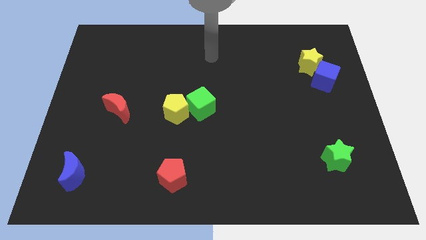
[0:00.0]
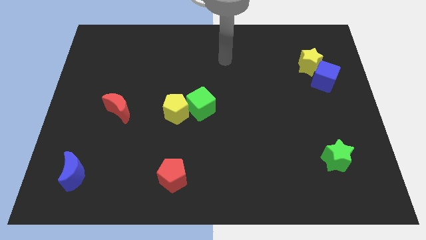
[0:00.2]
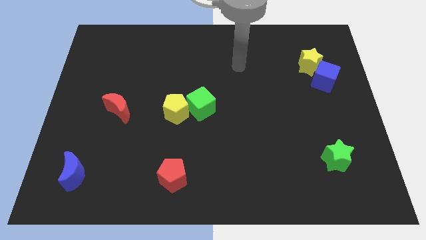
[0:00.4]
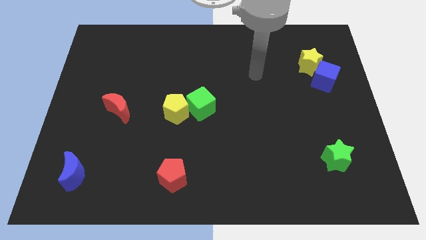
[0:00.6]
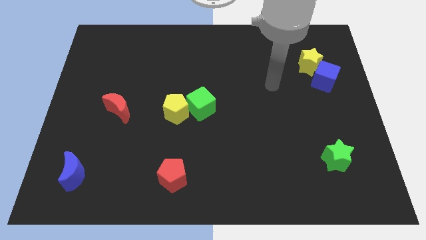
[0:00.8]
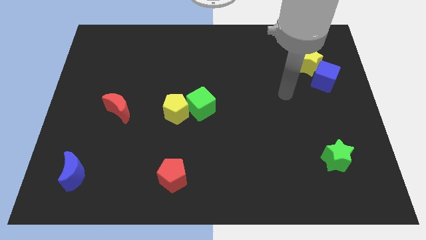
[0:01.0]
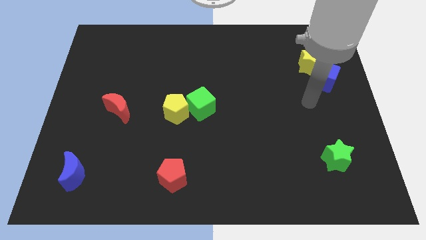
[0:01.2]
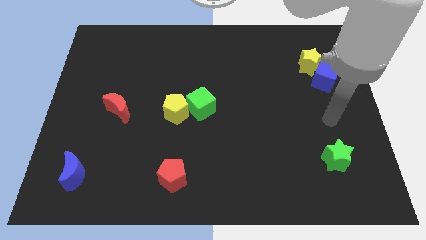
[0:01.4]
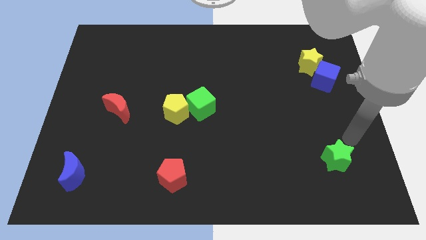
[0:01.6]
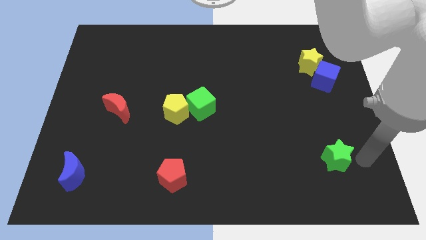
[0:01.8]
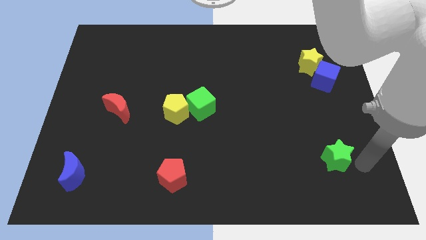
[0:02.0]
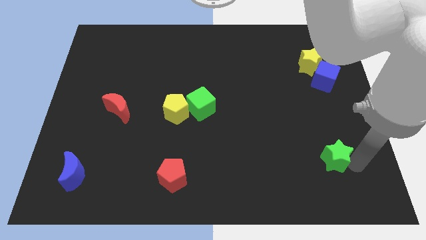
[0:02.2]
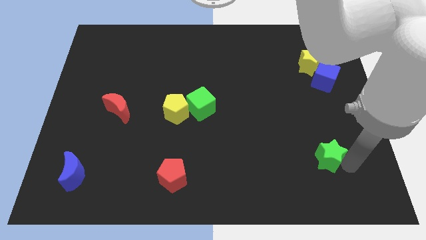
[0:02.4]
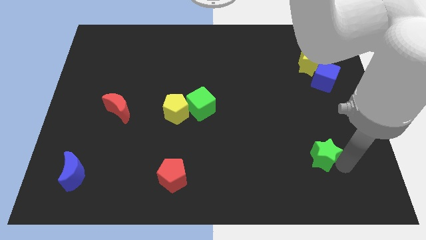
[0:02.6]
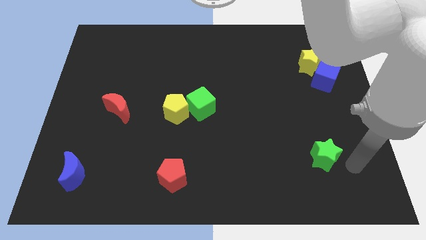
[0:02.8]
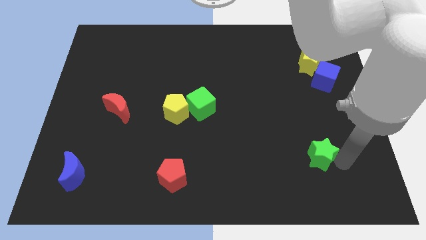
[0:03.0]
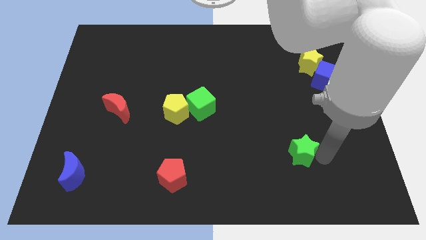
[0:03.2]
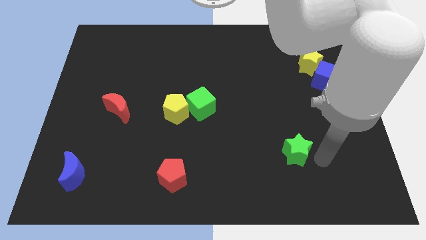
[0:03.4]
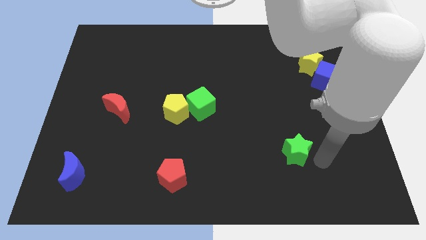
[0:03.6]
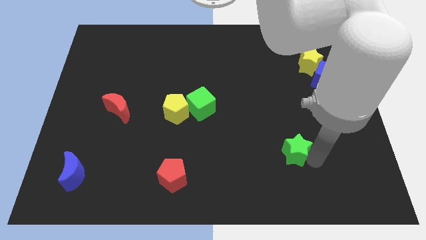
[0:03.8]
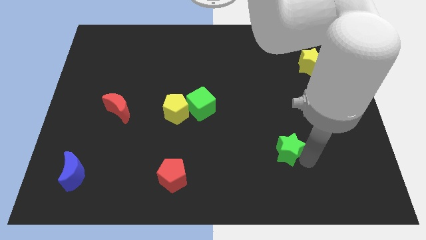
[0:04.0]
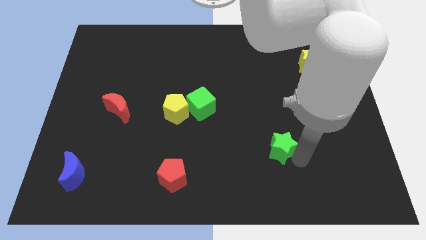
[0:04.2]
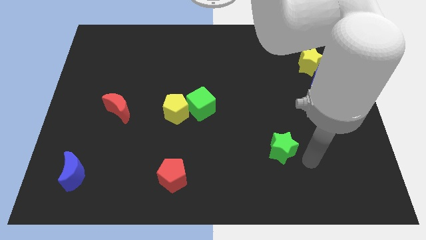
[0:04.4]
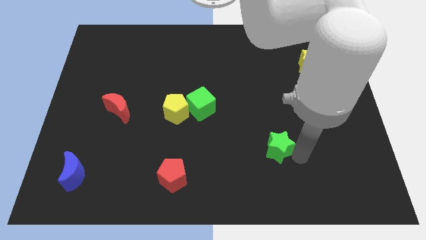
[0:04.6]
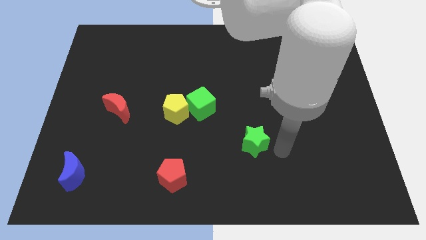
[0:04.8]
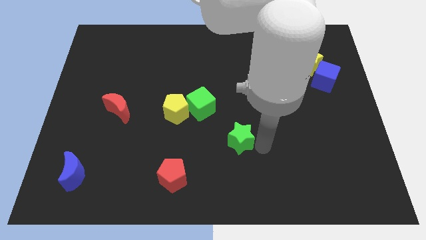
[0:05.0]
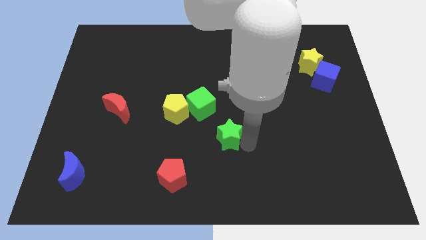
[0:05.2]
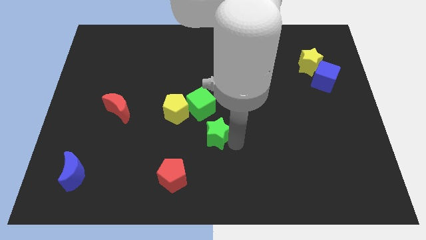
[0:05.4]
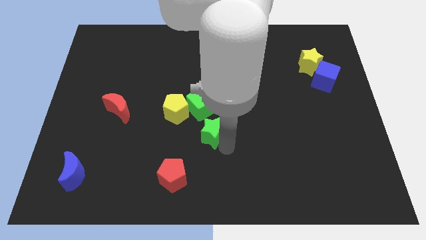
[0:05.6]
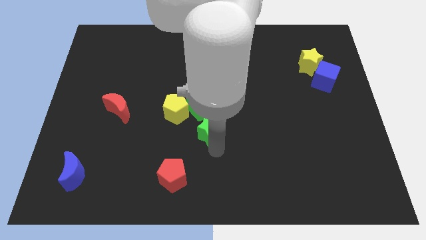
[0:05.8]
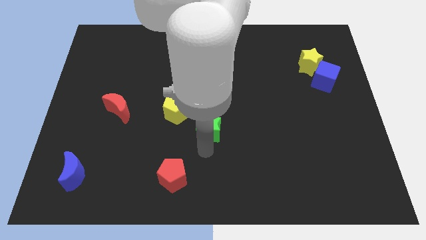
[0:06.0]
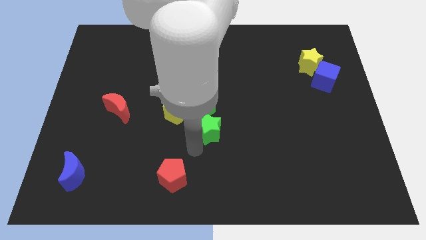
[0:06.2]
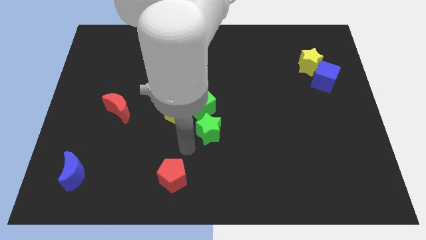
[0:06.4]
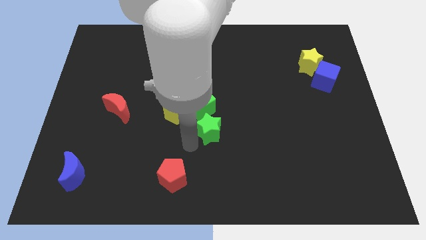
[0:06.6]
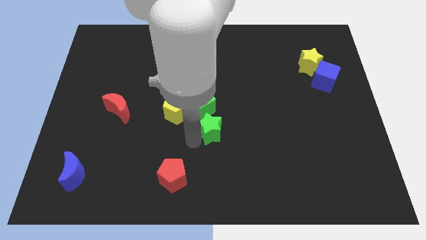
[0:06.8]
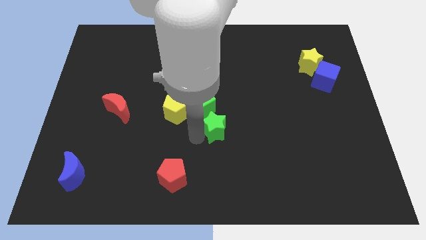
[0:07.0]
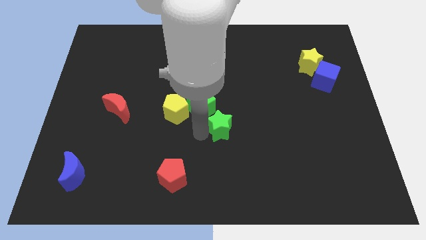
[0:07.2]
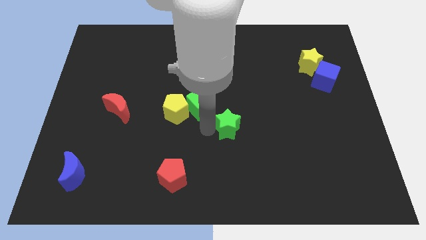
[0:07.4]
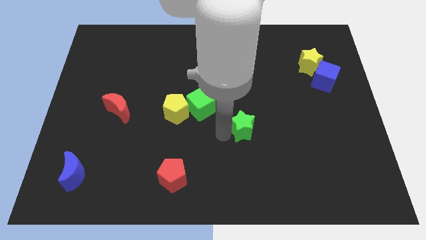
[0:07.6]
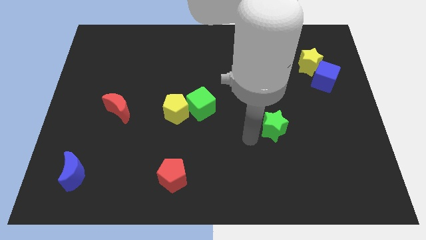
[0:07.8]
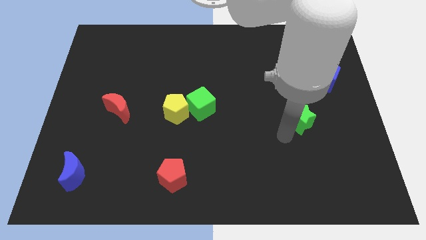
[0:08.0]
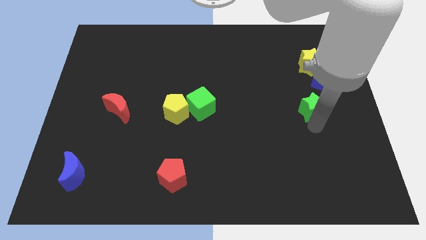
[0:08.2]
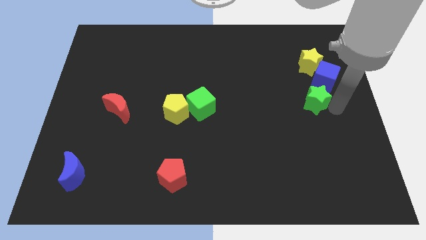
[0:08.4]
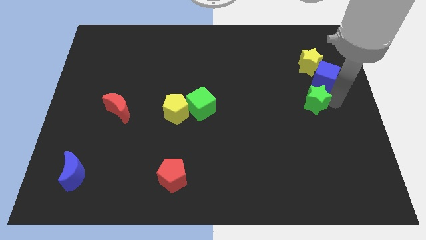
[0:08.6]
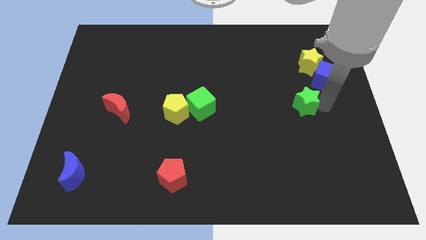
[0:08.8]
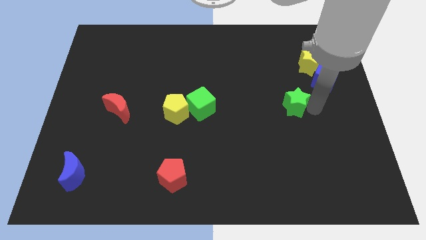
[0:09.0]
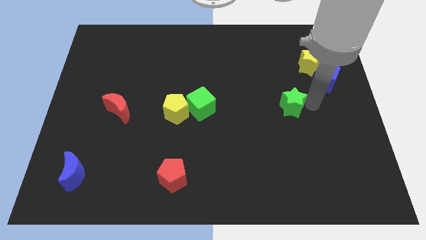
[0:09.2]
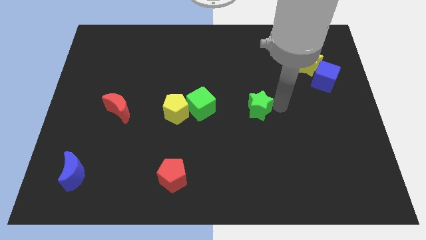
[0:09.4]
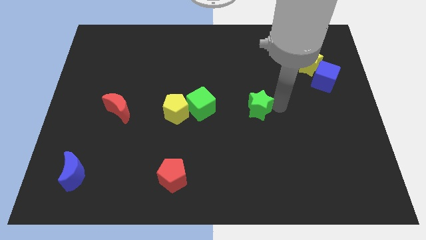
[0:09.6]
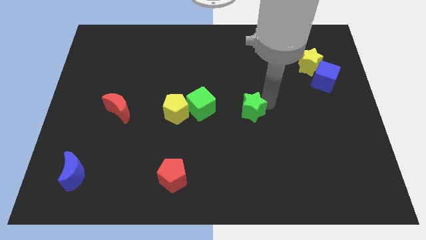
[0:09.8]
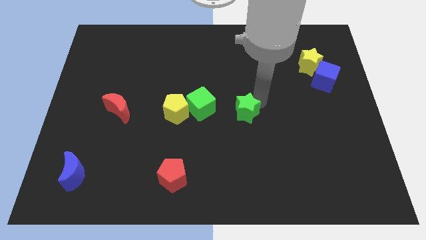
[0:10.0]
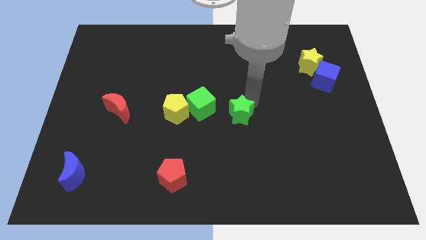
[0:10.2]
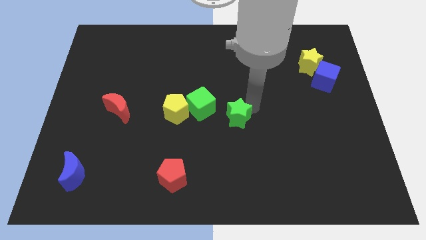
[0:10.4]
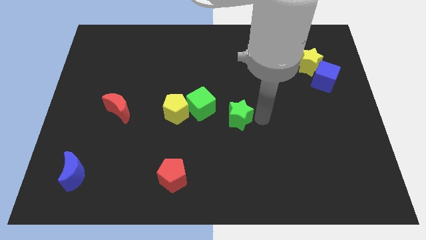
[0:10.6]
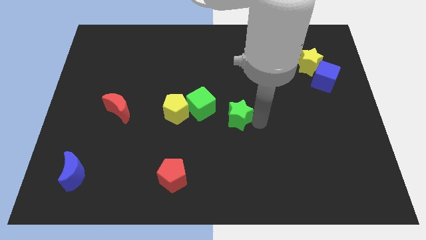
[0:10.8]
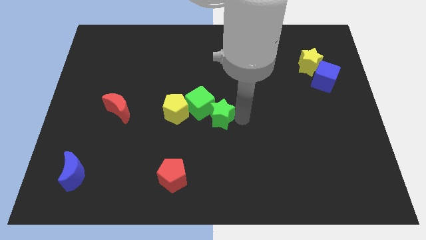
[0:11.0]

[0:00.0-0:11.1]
move the green star to the green cube

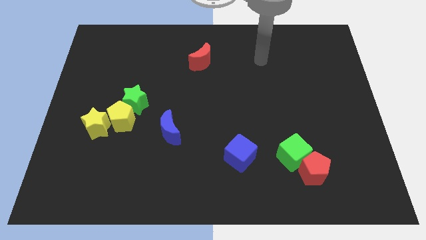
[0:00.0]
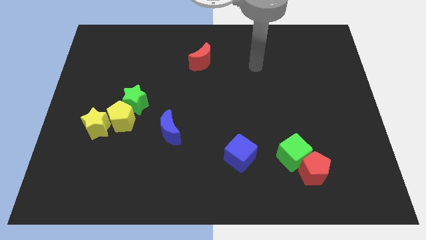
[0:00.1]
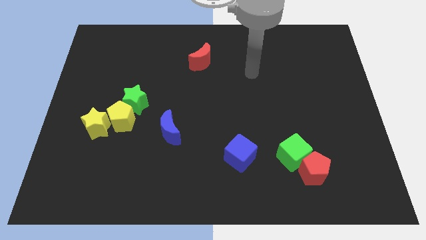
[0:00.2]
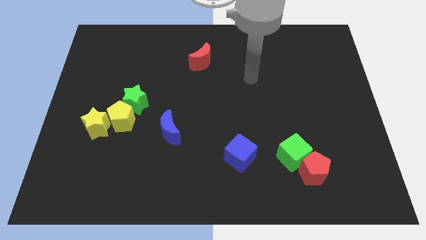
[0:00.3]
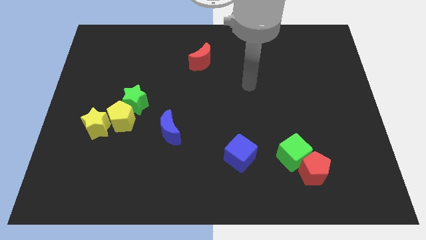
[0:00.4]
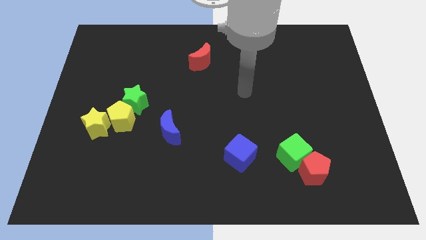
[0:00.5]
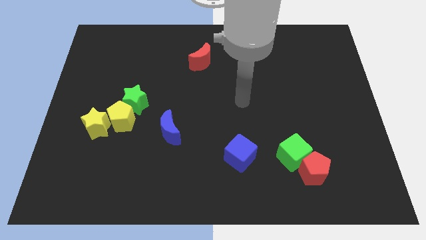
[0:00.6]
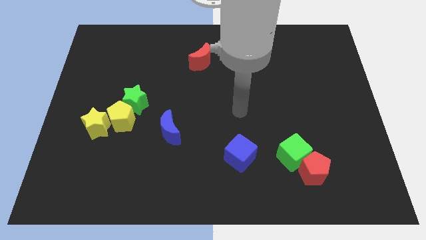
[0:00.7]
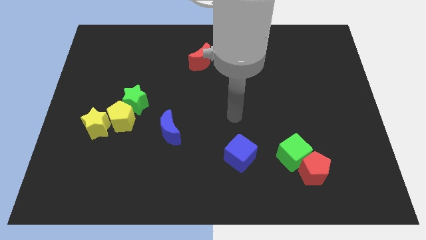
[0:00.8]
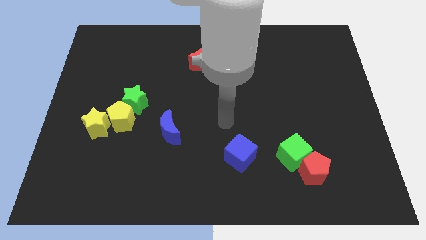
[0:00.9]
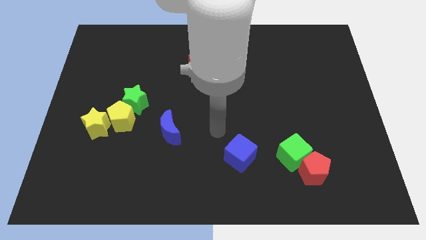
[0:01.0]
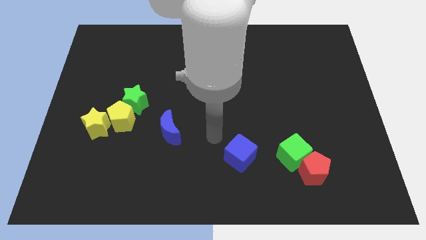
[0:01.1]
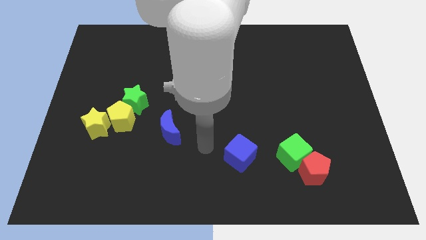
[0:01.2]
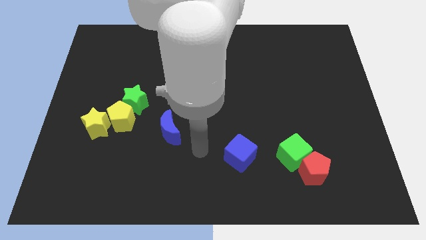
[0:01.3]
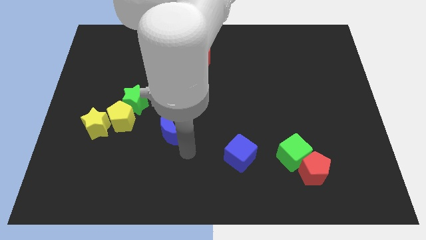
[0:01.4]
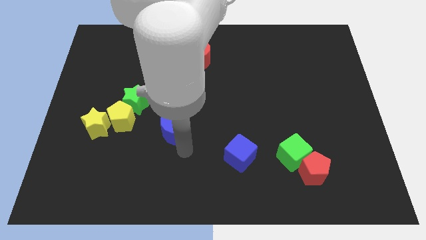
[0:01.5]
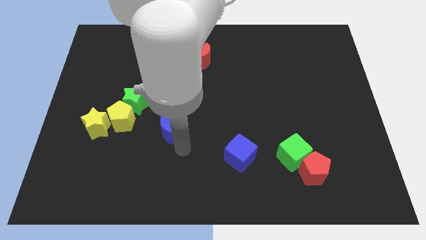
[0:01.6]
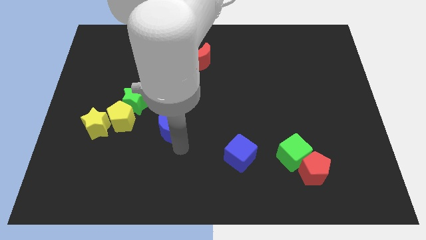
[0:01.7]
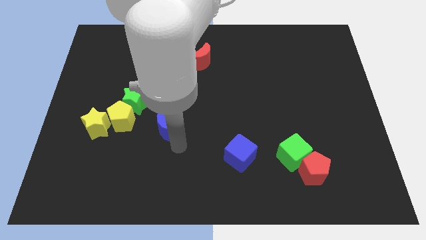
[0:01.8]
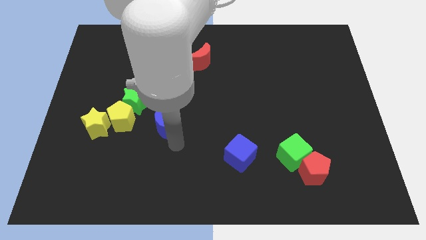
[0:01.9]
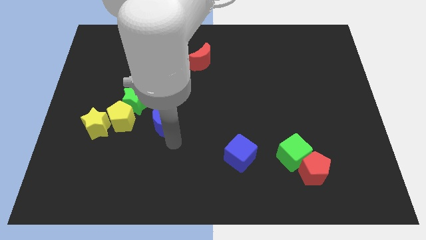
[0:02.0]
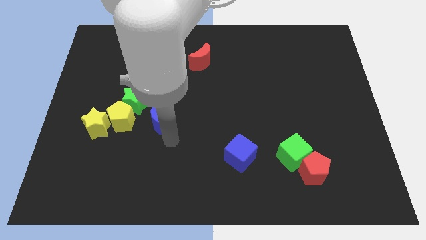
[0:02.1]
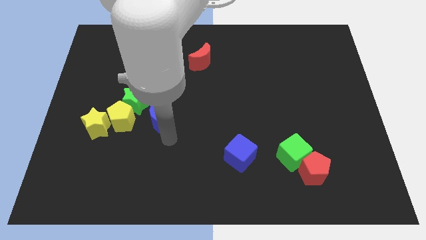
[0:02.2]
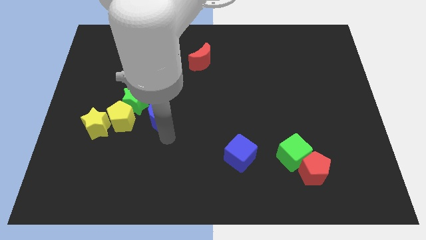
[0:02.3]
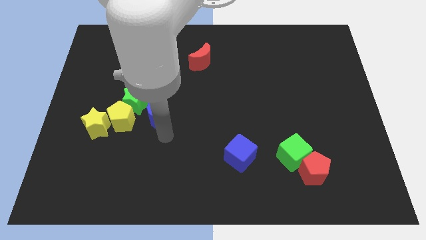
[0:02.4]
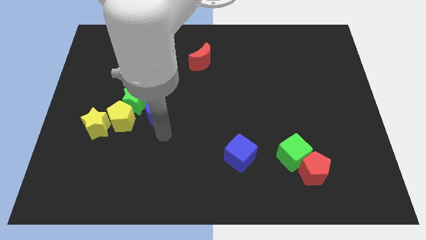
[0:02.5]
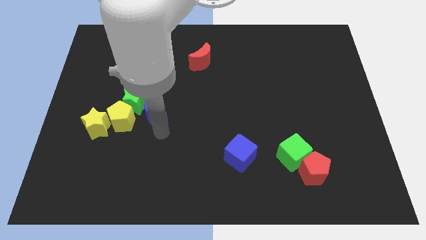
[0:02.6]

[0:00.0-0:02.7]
push the blue moon next to the green star
